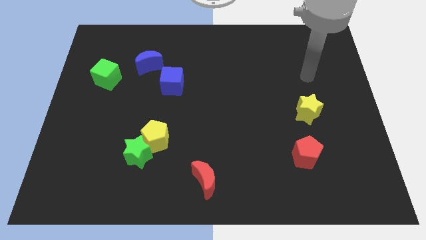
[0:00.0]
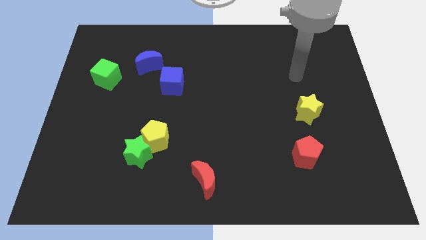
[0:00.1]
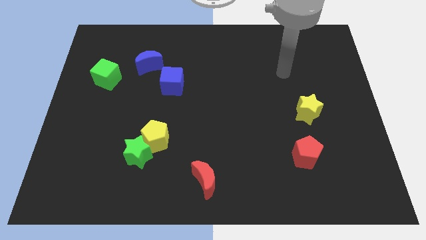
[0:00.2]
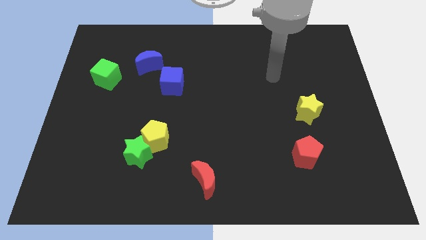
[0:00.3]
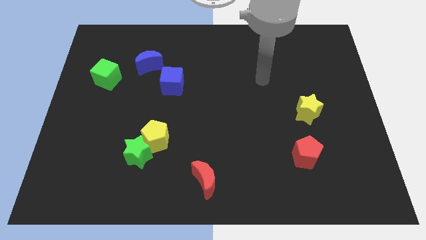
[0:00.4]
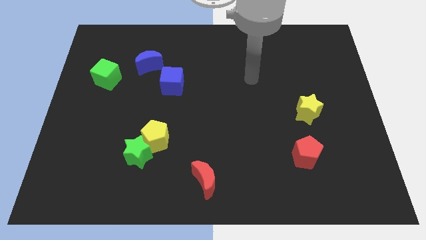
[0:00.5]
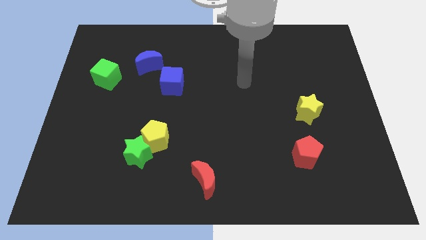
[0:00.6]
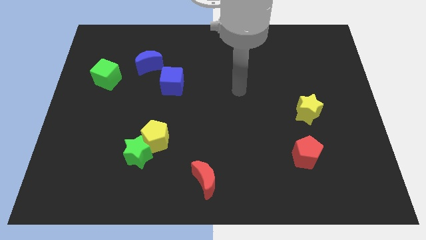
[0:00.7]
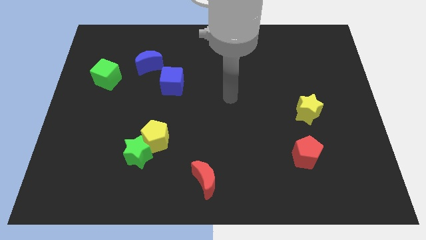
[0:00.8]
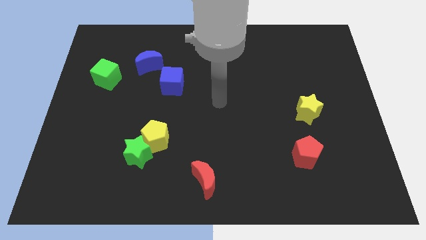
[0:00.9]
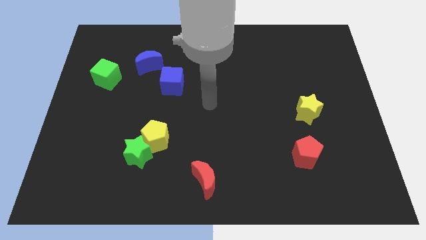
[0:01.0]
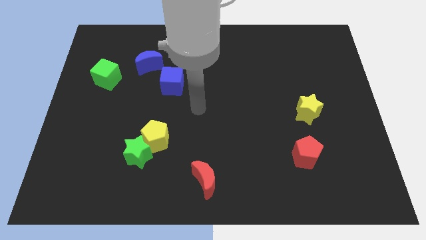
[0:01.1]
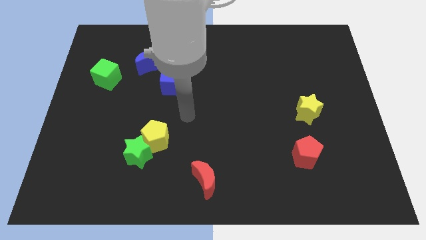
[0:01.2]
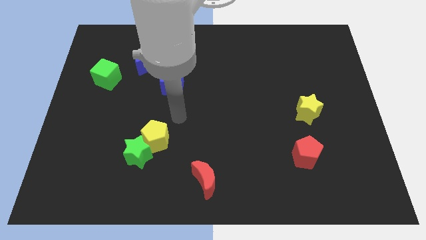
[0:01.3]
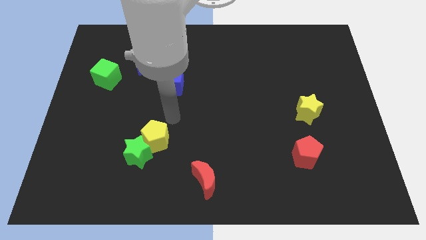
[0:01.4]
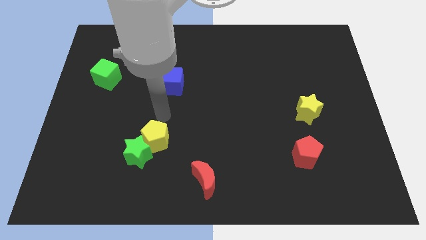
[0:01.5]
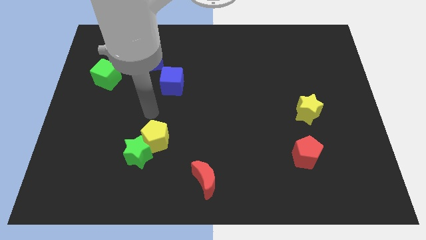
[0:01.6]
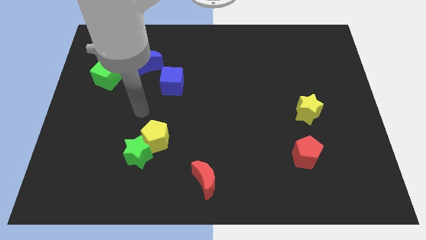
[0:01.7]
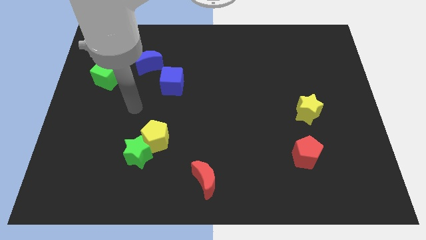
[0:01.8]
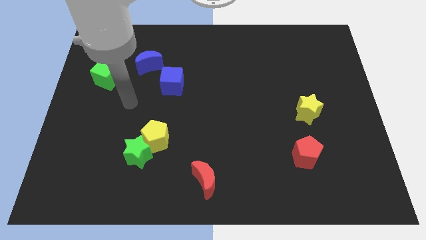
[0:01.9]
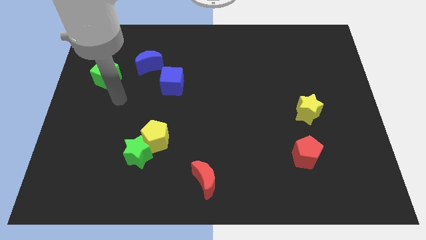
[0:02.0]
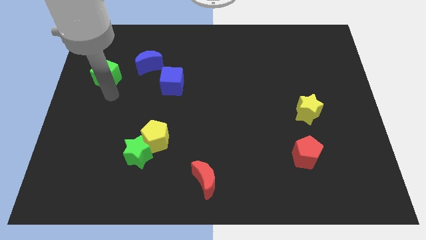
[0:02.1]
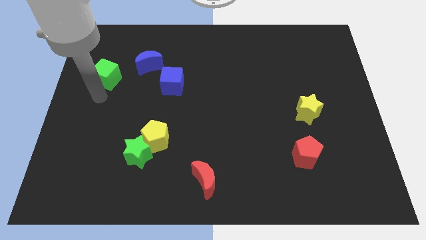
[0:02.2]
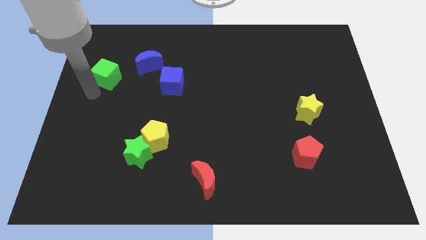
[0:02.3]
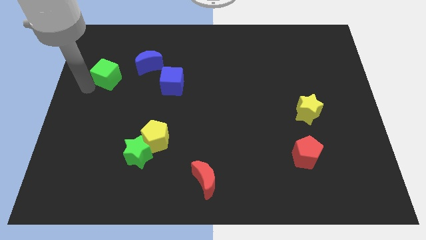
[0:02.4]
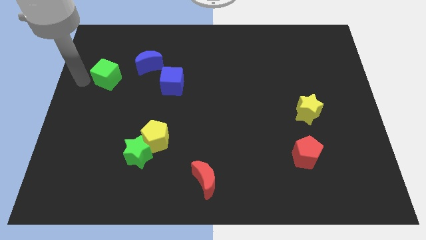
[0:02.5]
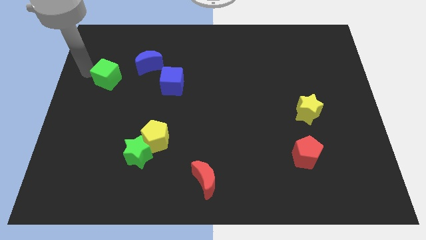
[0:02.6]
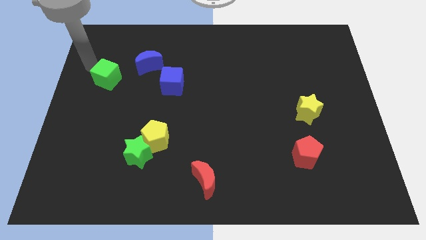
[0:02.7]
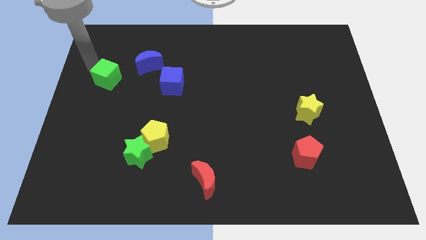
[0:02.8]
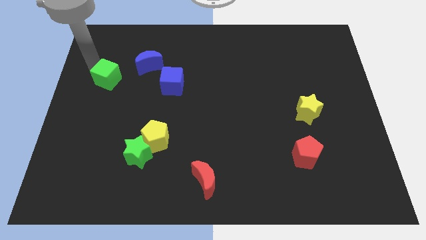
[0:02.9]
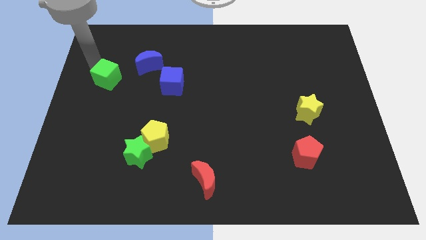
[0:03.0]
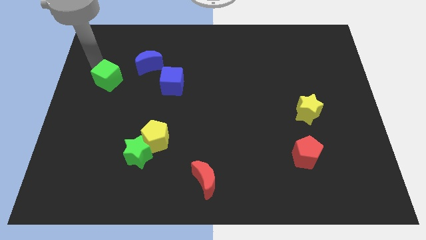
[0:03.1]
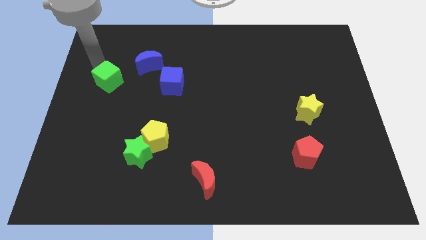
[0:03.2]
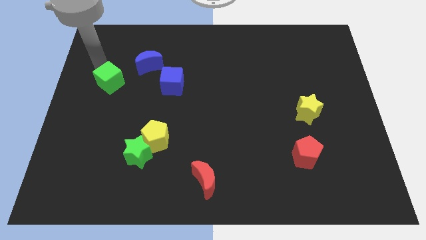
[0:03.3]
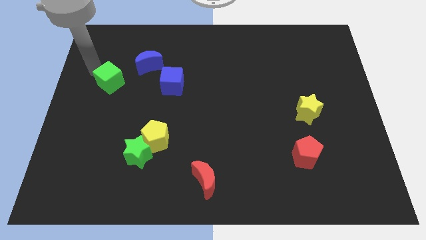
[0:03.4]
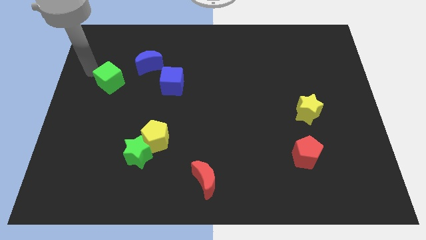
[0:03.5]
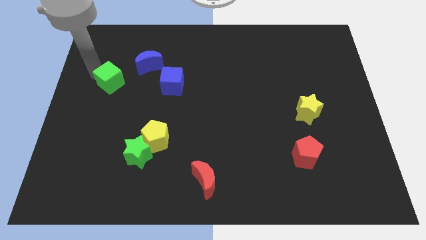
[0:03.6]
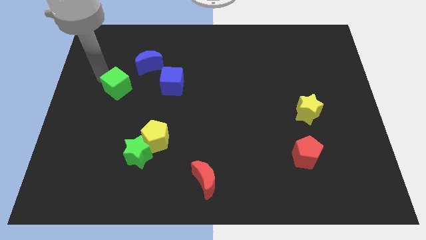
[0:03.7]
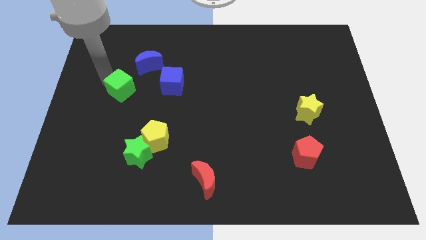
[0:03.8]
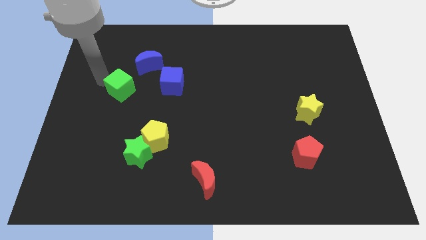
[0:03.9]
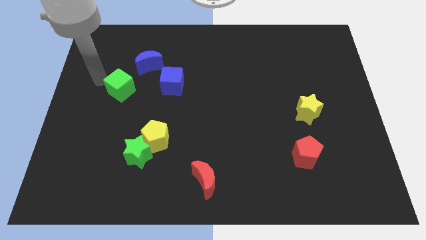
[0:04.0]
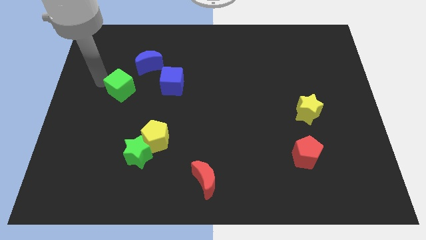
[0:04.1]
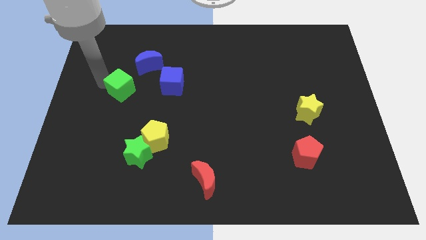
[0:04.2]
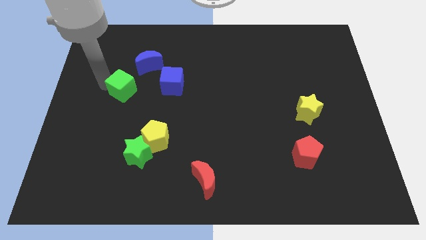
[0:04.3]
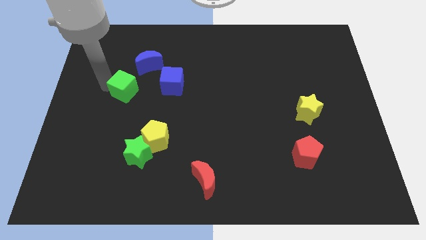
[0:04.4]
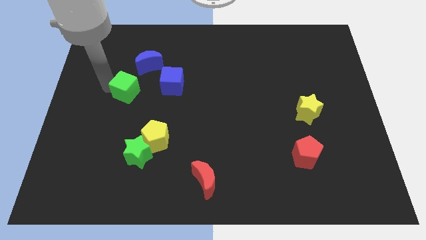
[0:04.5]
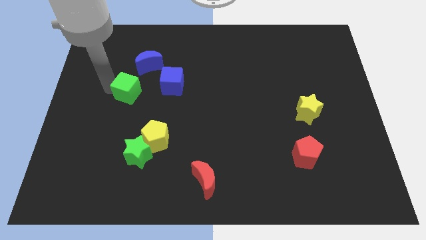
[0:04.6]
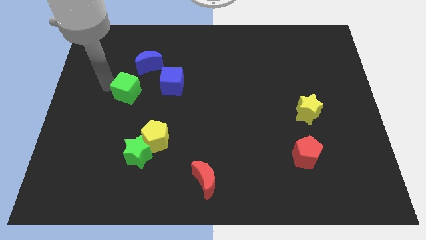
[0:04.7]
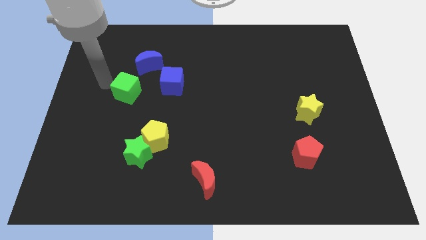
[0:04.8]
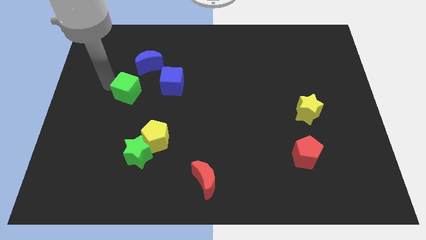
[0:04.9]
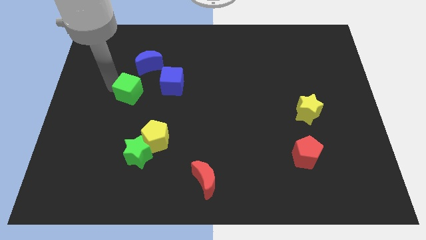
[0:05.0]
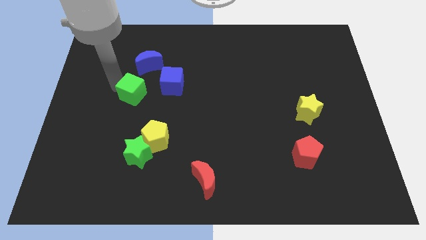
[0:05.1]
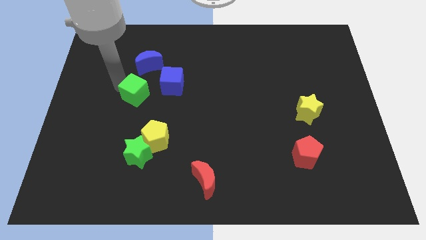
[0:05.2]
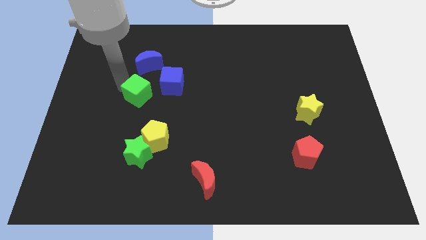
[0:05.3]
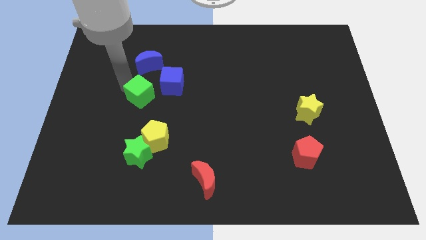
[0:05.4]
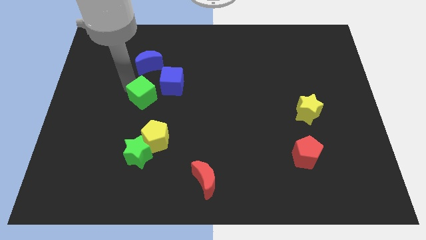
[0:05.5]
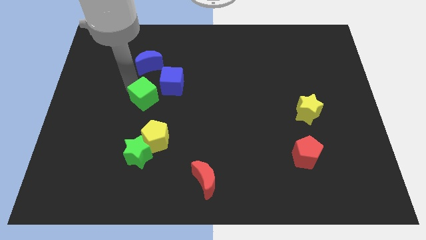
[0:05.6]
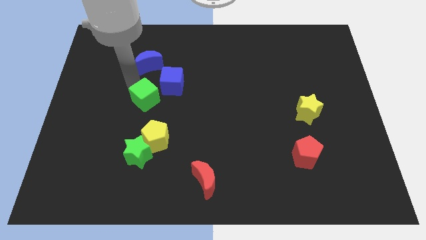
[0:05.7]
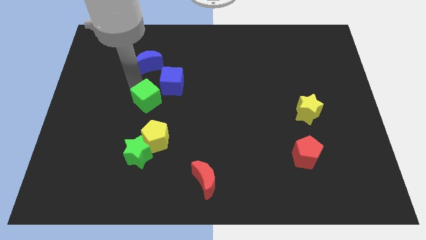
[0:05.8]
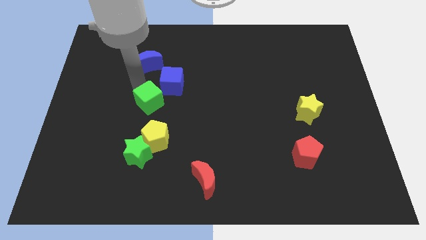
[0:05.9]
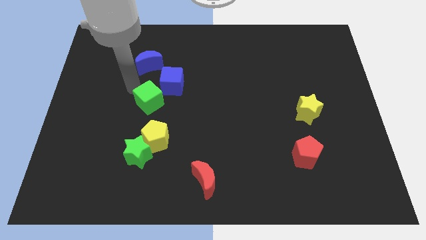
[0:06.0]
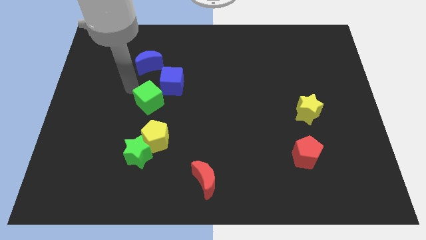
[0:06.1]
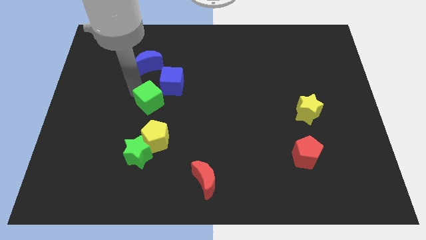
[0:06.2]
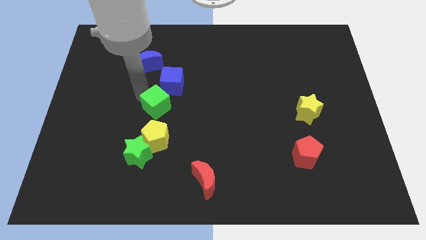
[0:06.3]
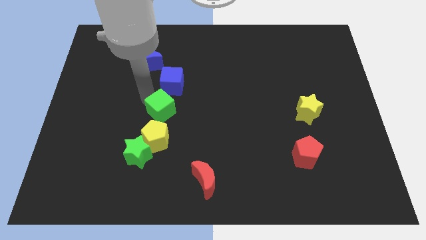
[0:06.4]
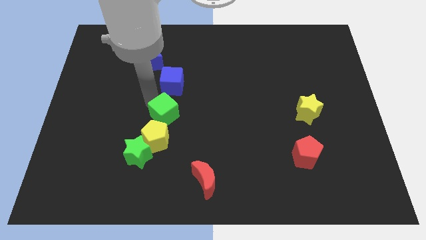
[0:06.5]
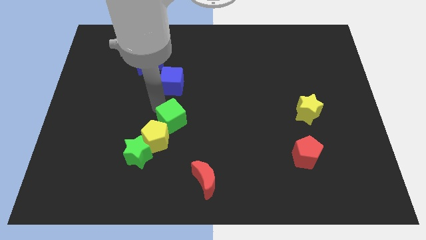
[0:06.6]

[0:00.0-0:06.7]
slide the green cube down and right diagonally

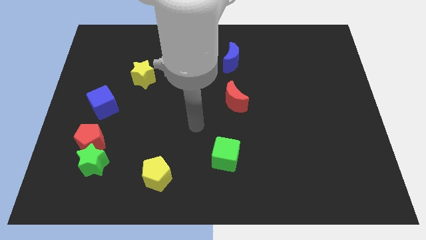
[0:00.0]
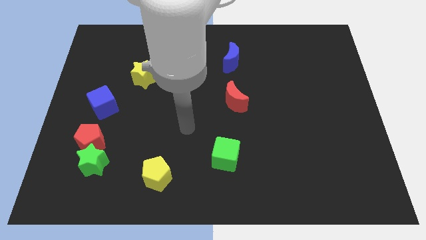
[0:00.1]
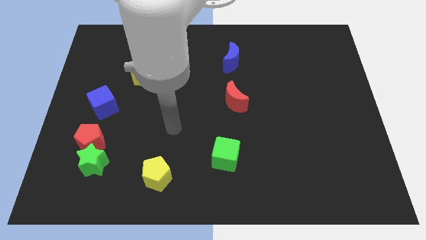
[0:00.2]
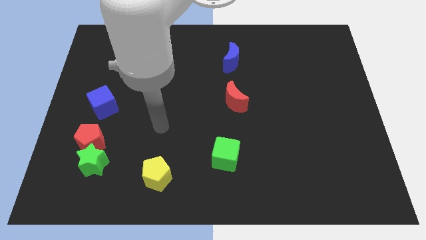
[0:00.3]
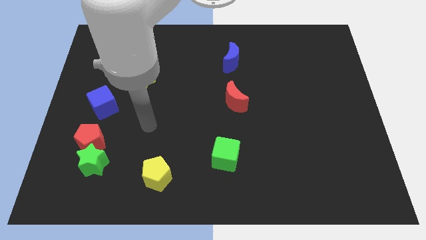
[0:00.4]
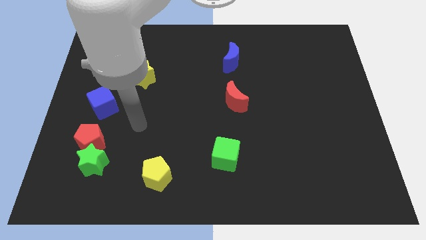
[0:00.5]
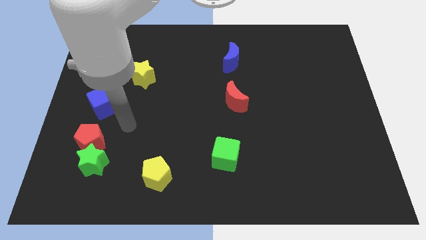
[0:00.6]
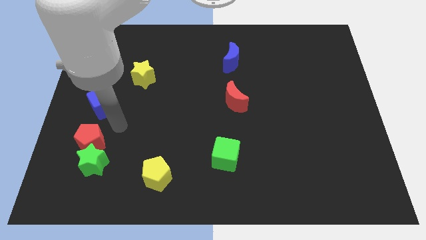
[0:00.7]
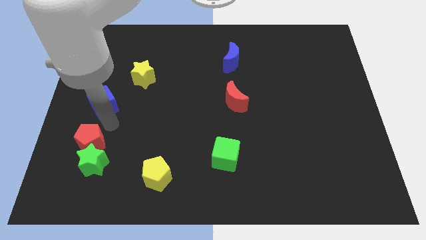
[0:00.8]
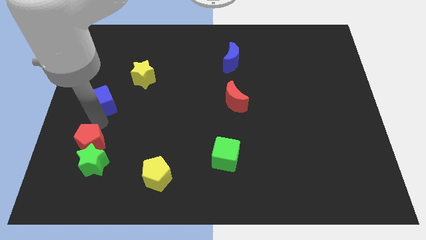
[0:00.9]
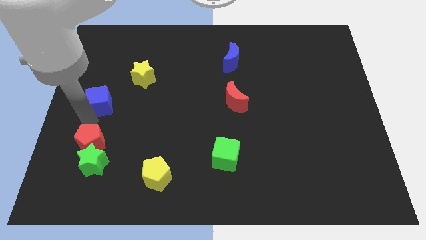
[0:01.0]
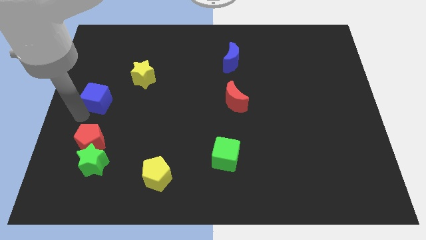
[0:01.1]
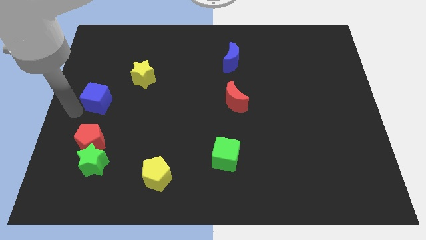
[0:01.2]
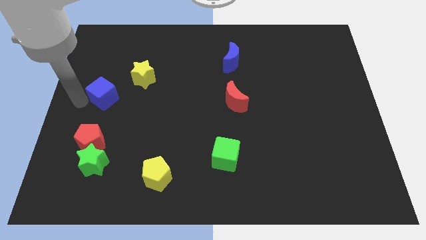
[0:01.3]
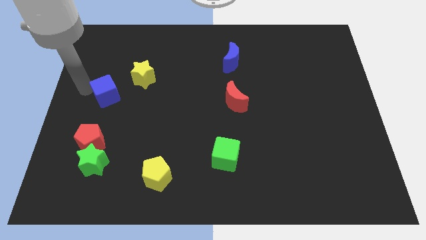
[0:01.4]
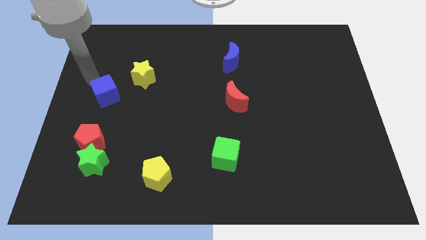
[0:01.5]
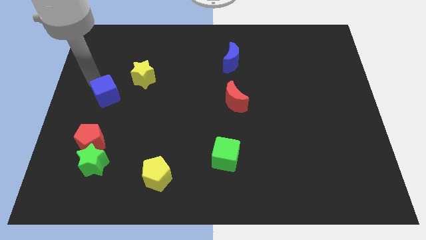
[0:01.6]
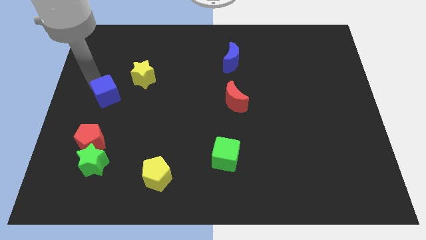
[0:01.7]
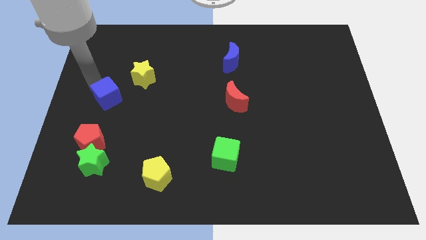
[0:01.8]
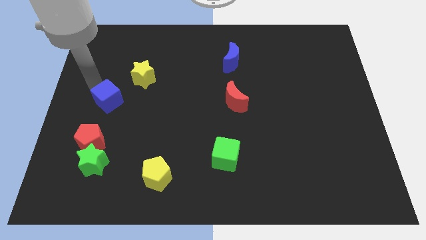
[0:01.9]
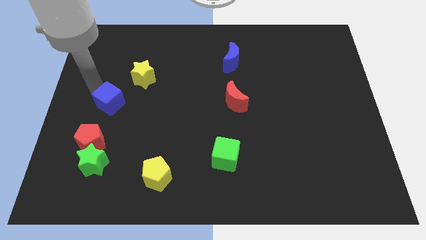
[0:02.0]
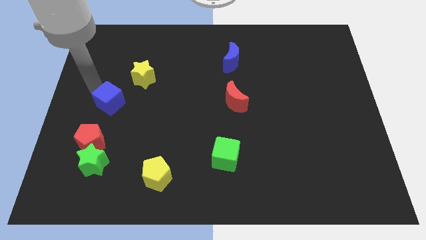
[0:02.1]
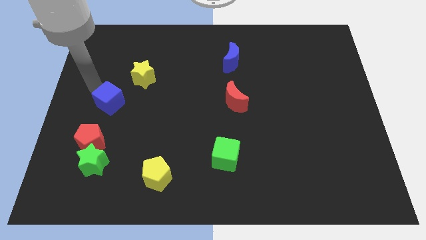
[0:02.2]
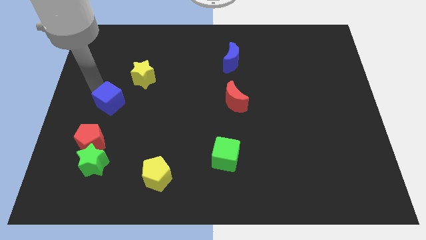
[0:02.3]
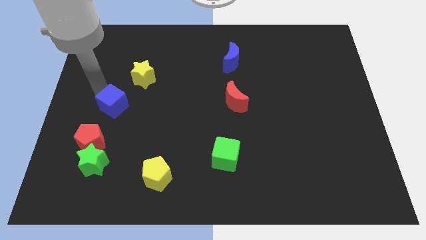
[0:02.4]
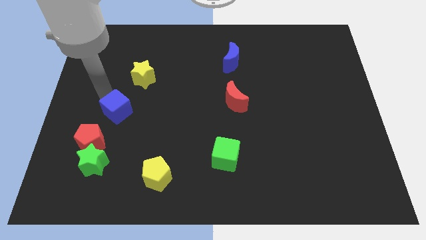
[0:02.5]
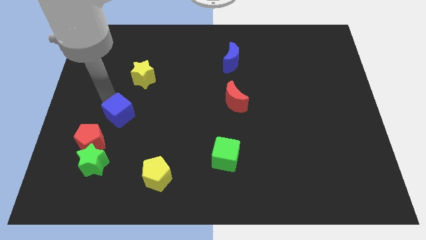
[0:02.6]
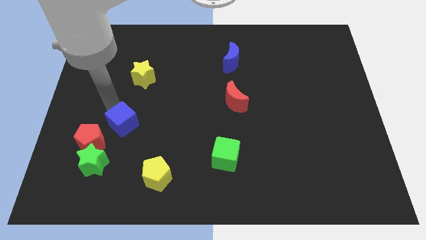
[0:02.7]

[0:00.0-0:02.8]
move the blue cube a little downwards and then right
